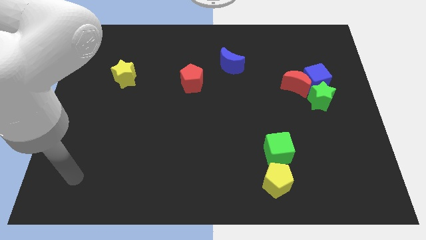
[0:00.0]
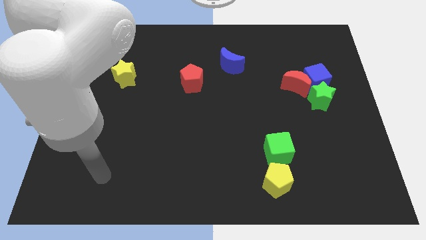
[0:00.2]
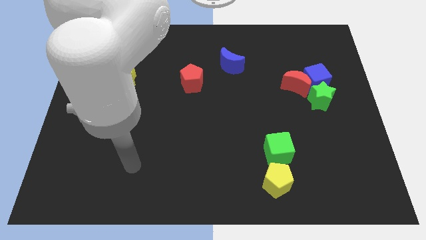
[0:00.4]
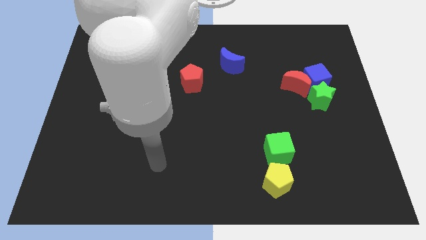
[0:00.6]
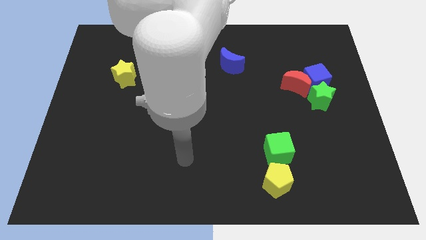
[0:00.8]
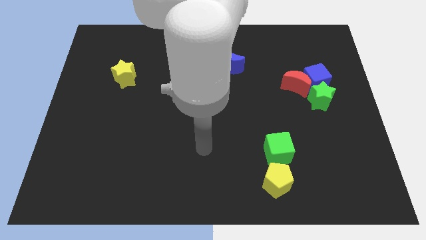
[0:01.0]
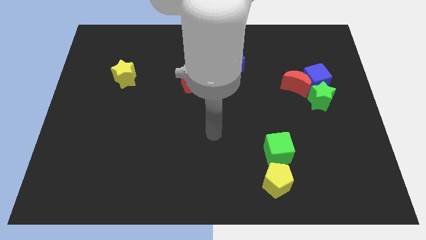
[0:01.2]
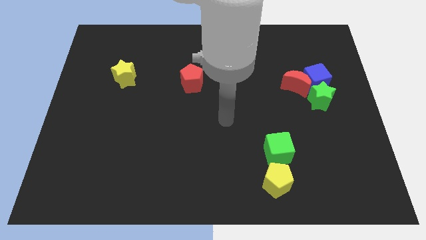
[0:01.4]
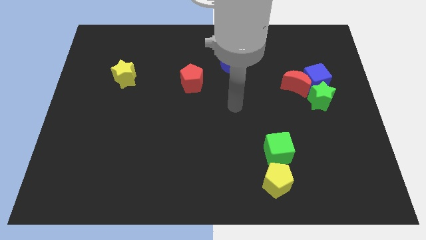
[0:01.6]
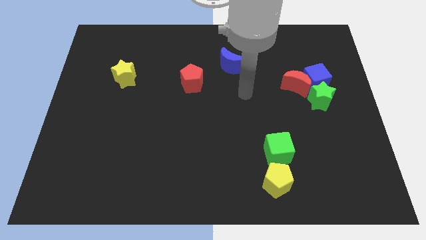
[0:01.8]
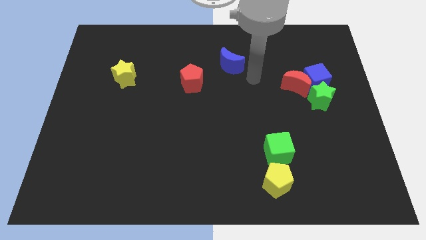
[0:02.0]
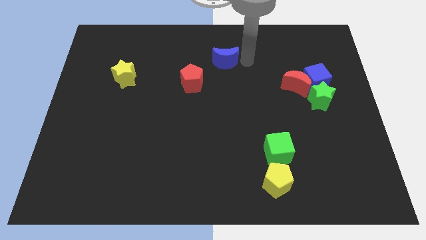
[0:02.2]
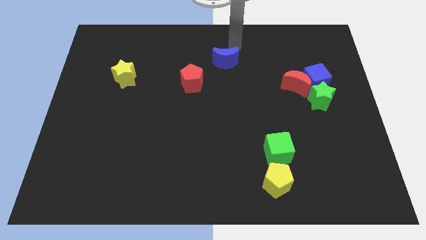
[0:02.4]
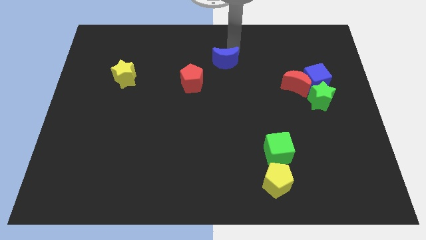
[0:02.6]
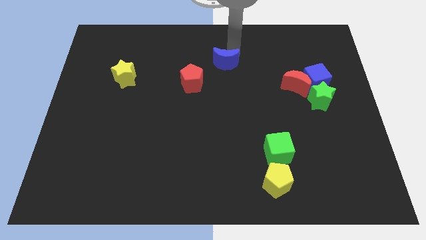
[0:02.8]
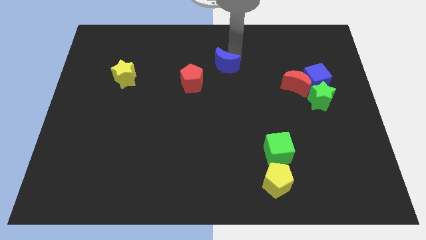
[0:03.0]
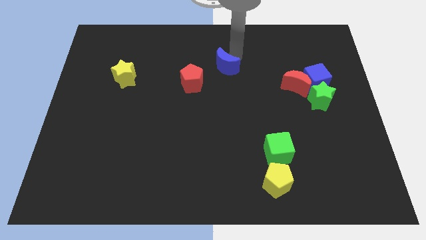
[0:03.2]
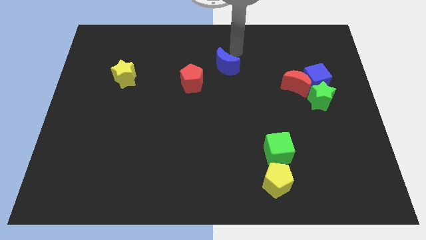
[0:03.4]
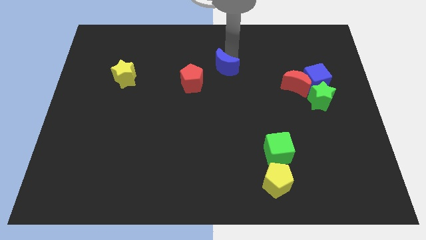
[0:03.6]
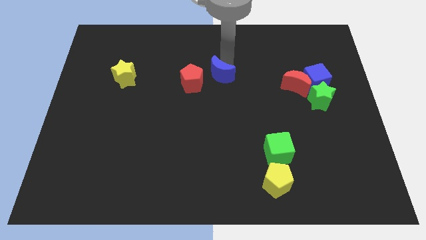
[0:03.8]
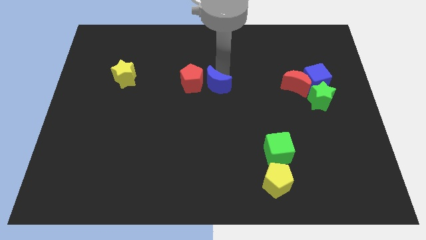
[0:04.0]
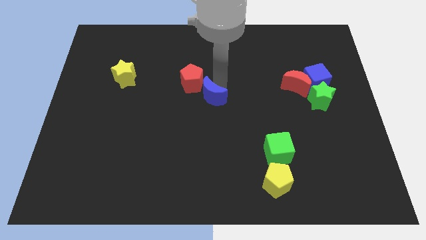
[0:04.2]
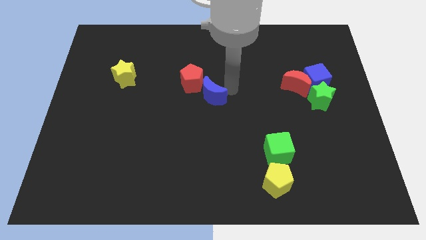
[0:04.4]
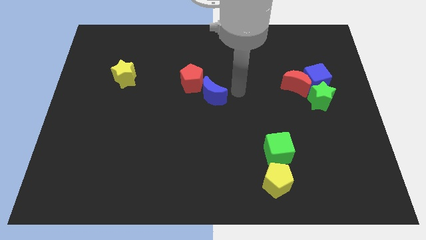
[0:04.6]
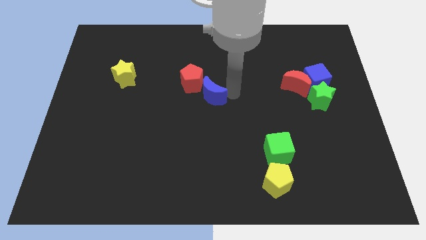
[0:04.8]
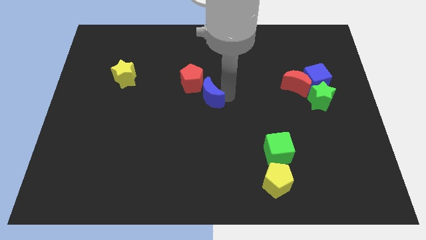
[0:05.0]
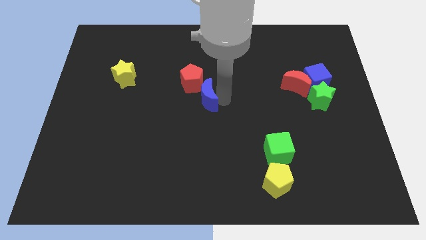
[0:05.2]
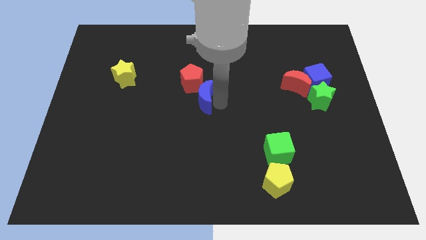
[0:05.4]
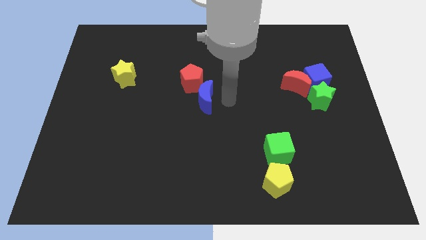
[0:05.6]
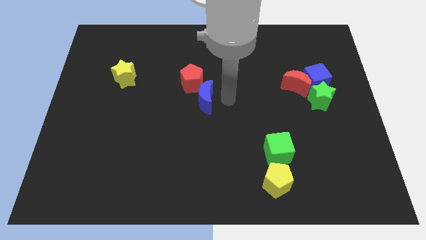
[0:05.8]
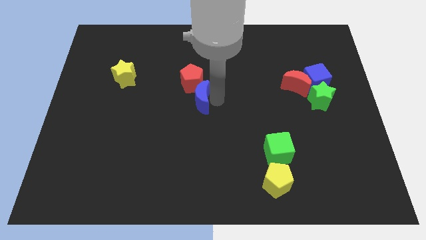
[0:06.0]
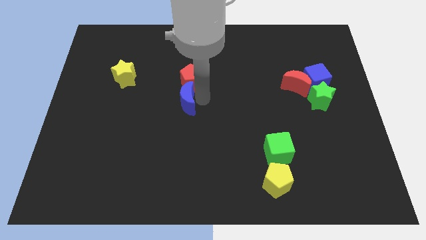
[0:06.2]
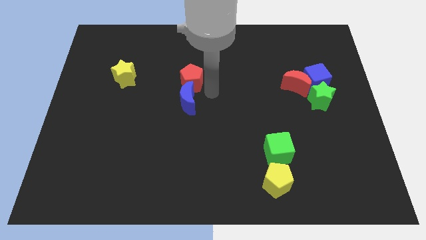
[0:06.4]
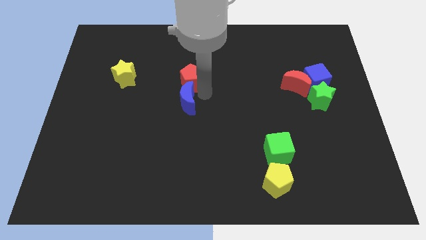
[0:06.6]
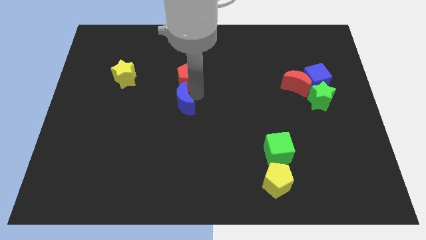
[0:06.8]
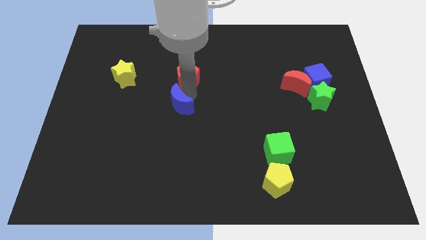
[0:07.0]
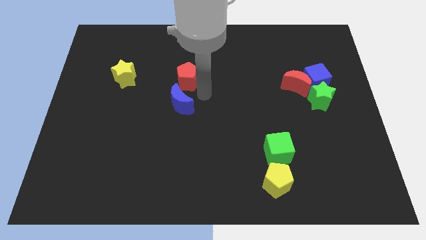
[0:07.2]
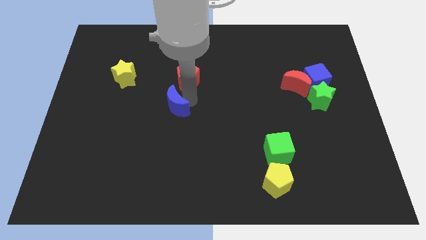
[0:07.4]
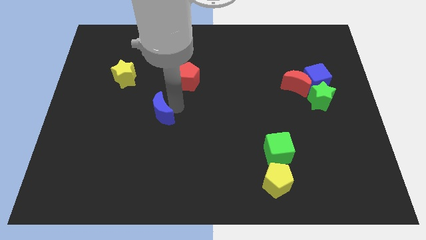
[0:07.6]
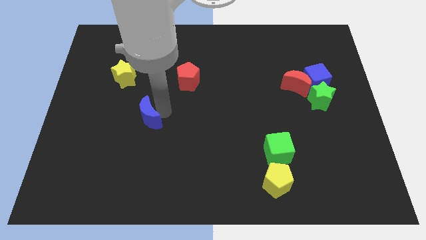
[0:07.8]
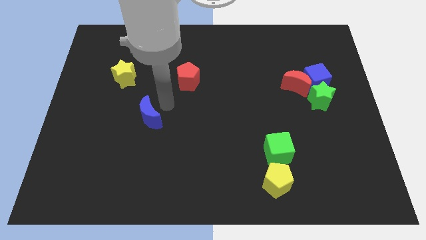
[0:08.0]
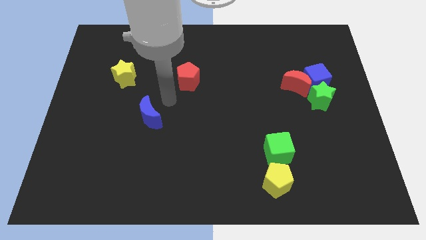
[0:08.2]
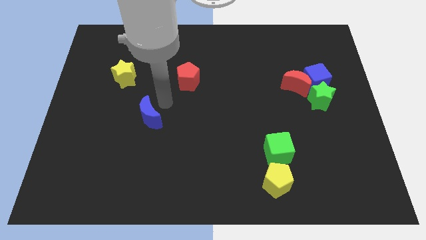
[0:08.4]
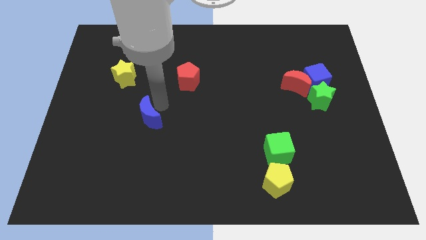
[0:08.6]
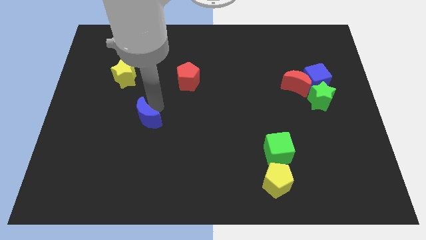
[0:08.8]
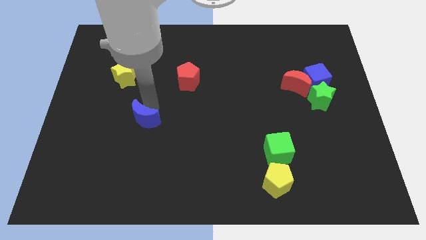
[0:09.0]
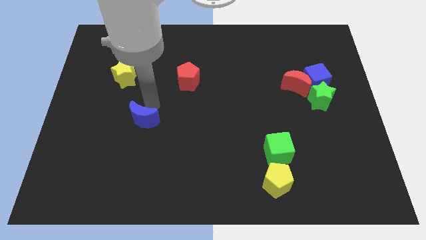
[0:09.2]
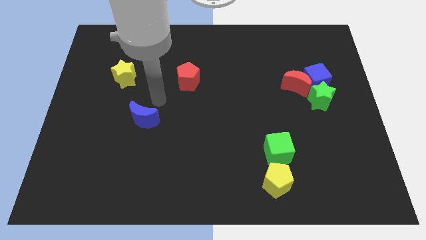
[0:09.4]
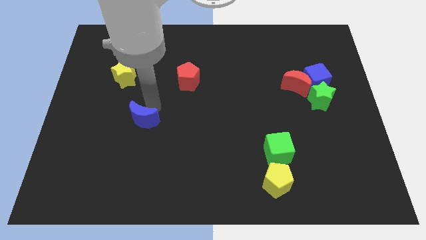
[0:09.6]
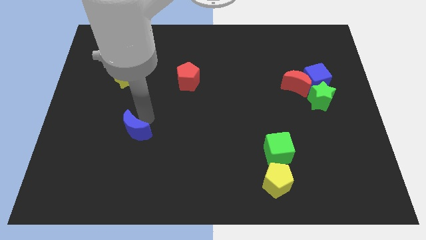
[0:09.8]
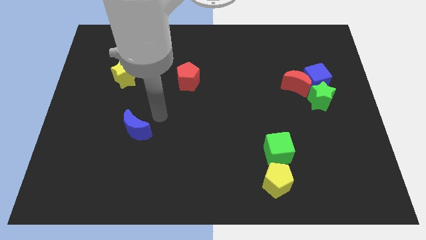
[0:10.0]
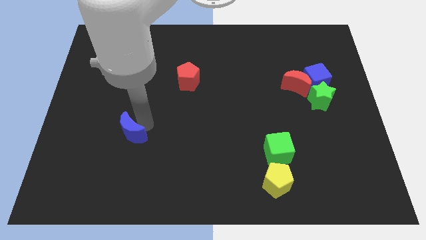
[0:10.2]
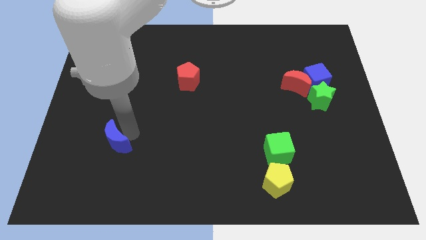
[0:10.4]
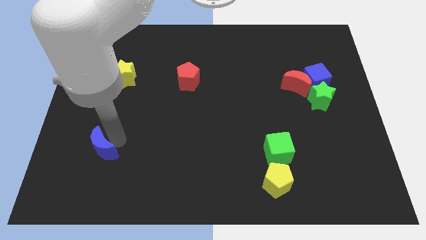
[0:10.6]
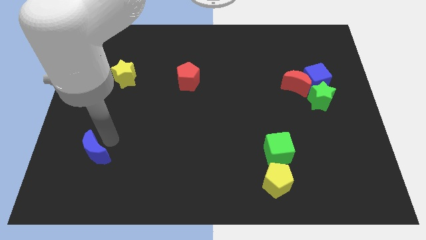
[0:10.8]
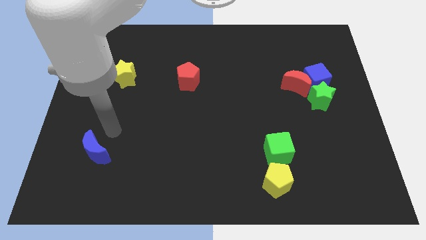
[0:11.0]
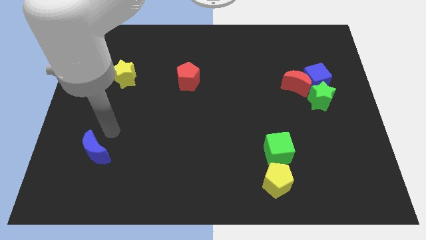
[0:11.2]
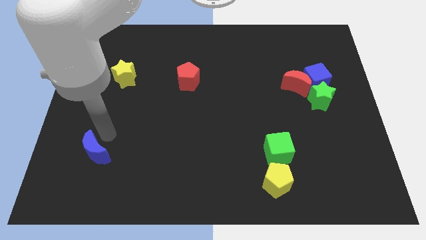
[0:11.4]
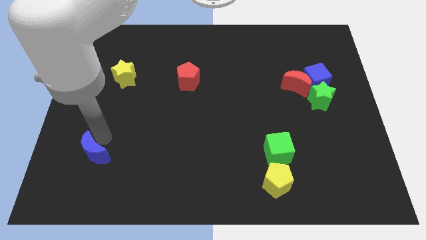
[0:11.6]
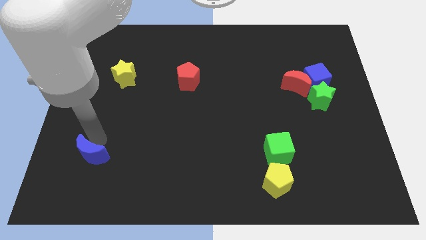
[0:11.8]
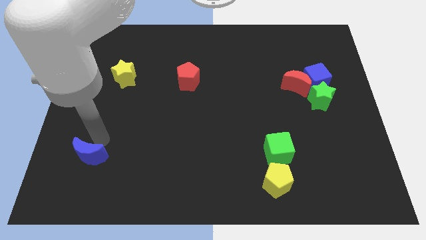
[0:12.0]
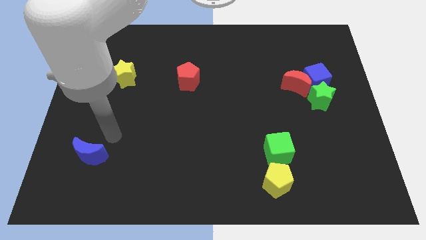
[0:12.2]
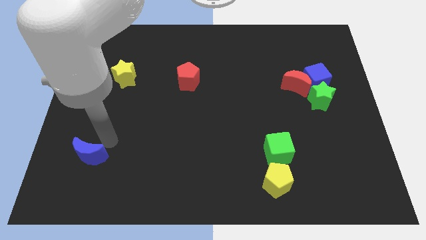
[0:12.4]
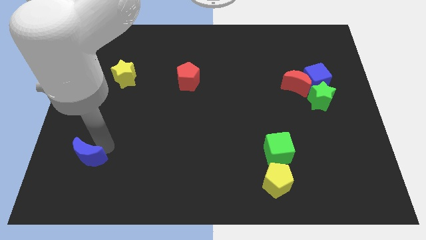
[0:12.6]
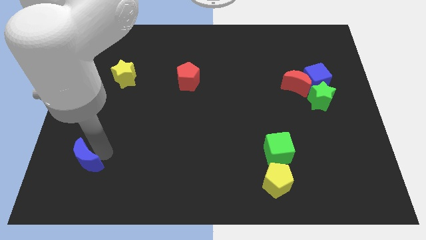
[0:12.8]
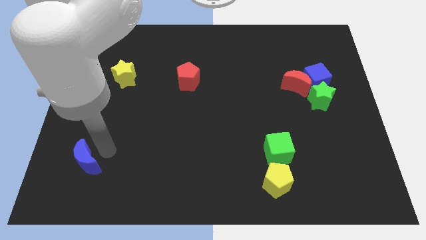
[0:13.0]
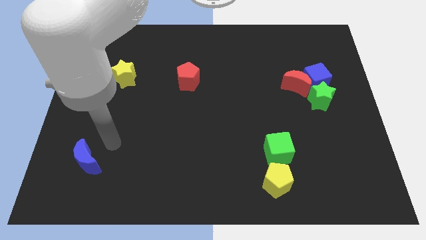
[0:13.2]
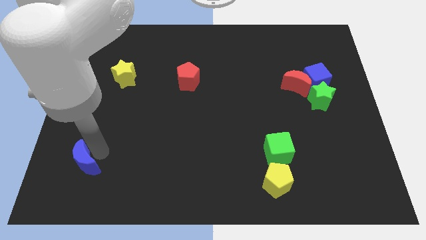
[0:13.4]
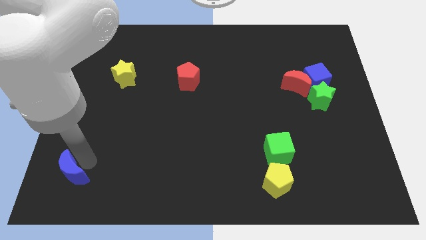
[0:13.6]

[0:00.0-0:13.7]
push the blue moon to the bottom left
